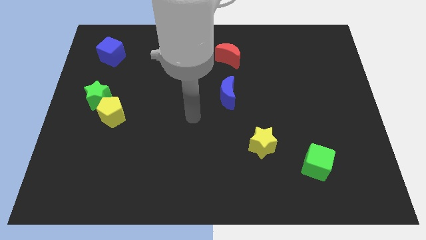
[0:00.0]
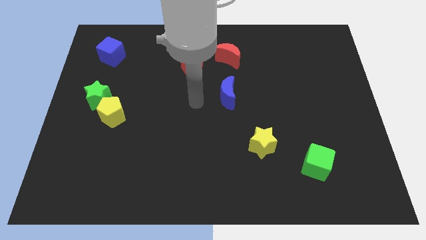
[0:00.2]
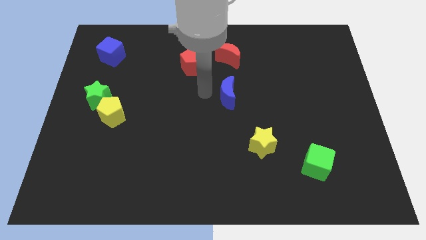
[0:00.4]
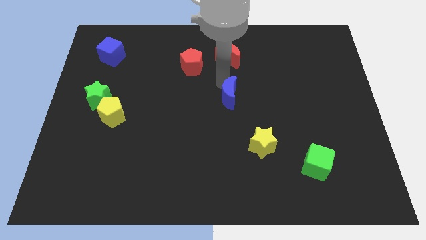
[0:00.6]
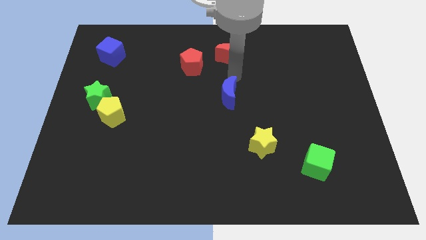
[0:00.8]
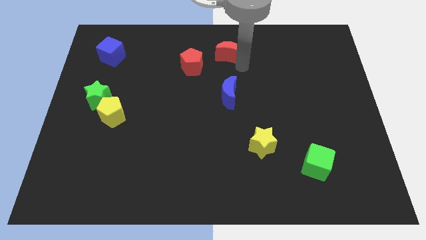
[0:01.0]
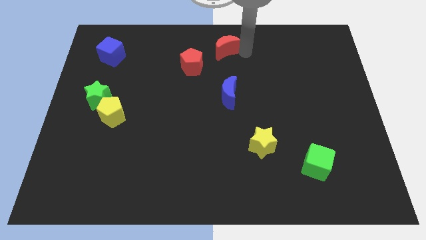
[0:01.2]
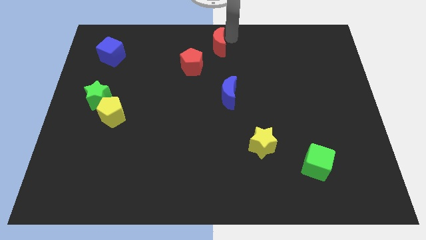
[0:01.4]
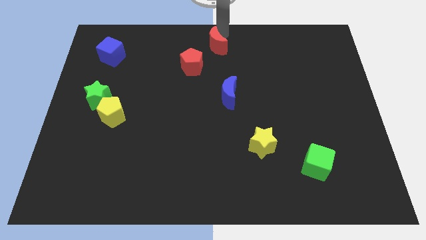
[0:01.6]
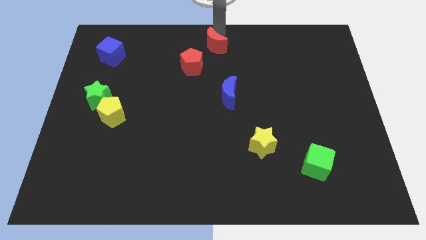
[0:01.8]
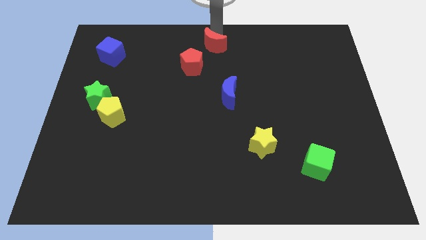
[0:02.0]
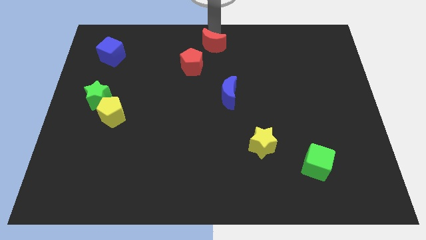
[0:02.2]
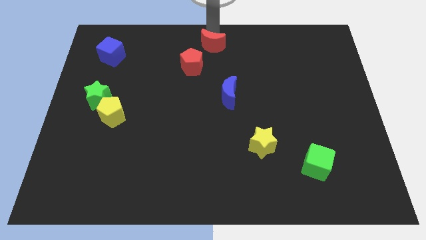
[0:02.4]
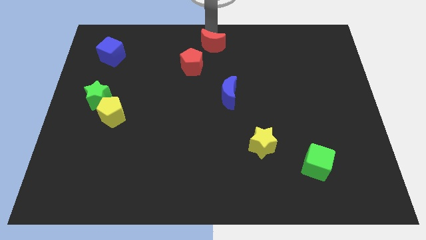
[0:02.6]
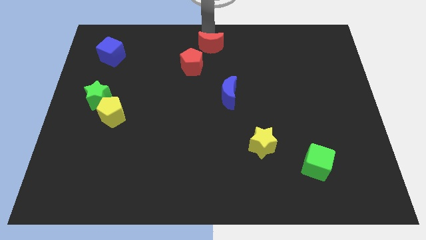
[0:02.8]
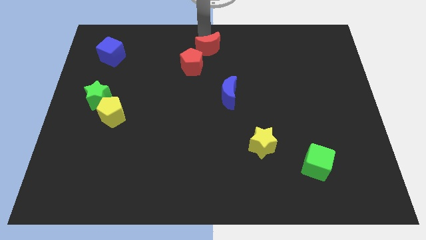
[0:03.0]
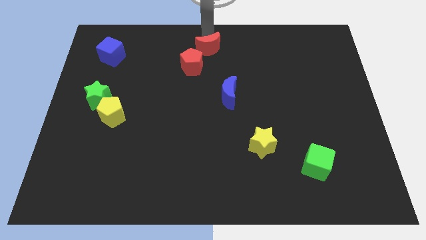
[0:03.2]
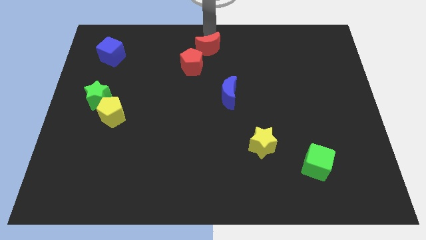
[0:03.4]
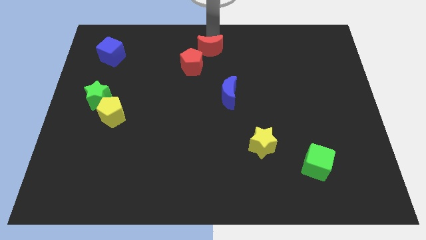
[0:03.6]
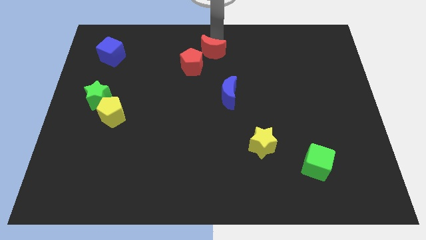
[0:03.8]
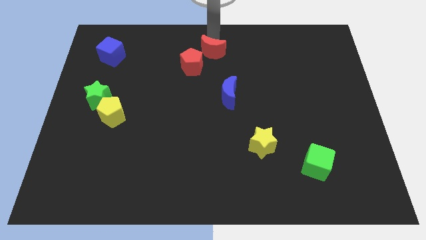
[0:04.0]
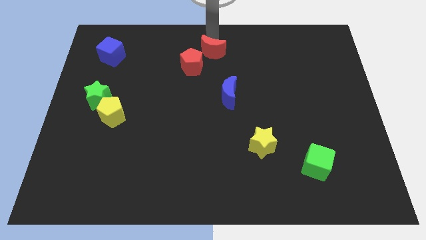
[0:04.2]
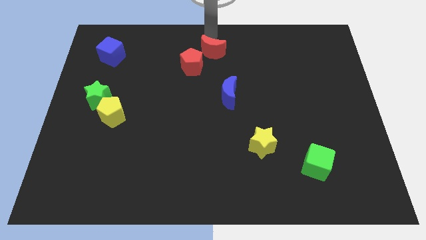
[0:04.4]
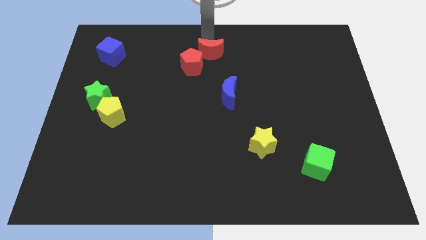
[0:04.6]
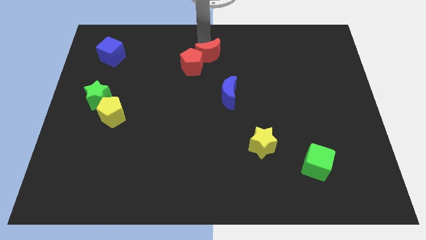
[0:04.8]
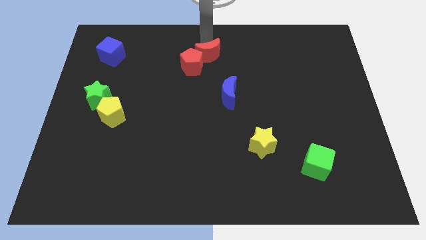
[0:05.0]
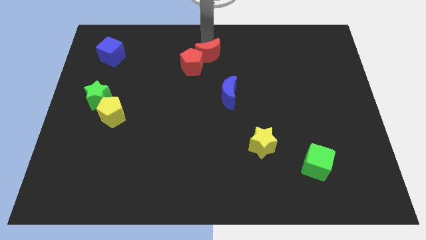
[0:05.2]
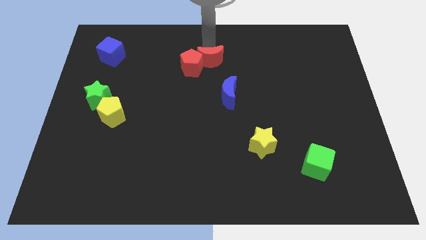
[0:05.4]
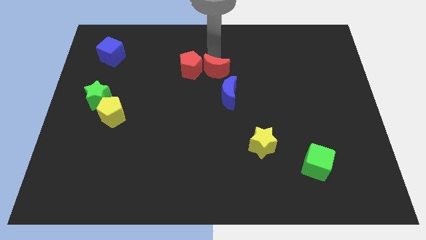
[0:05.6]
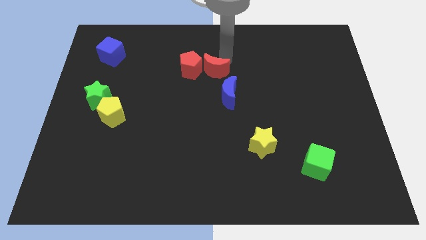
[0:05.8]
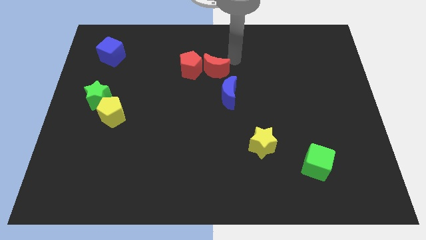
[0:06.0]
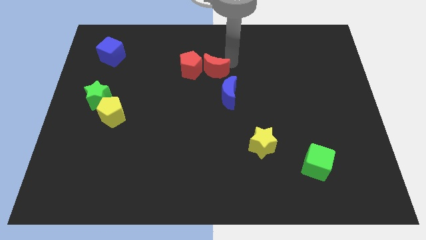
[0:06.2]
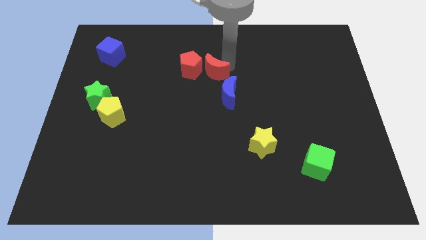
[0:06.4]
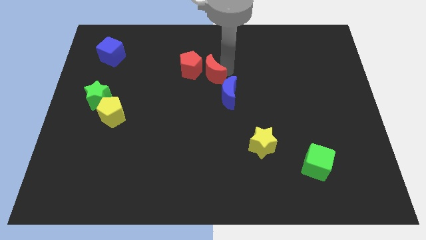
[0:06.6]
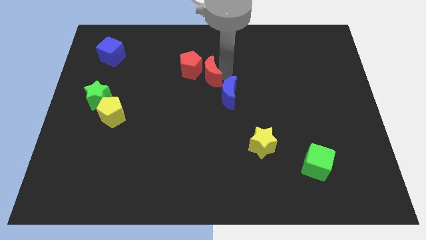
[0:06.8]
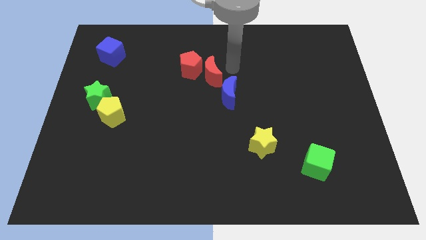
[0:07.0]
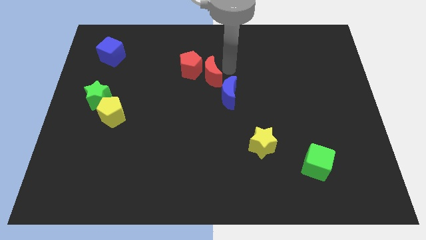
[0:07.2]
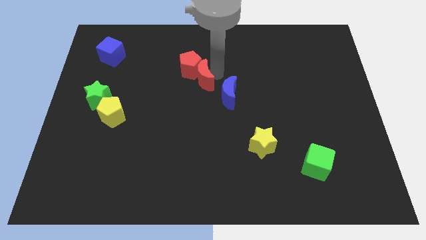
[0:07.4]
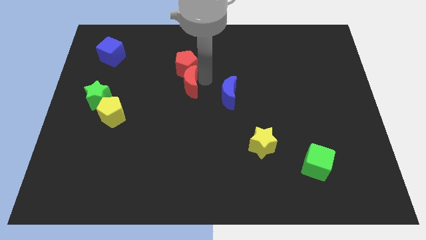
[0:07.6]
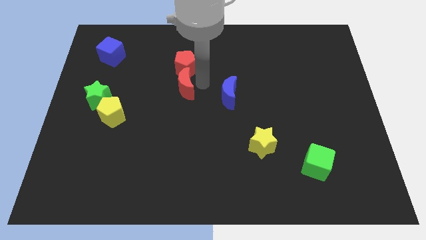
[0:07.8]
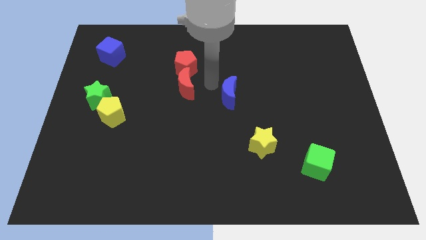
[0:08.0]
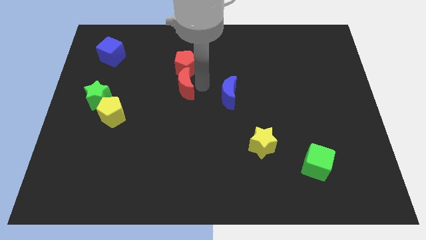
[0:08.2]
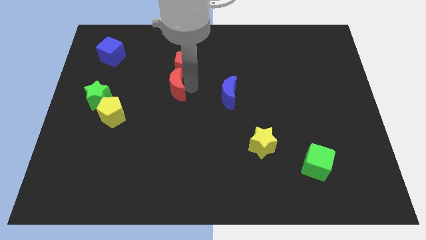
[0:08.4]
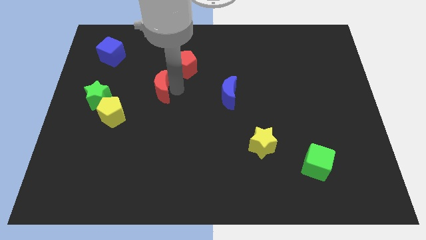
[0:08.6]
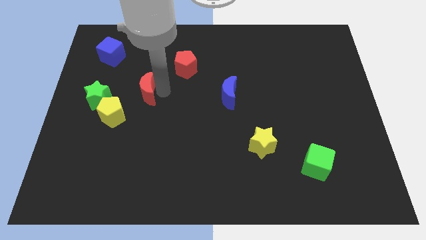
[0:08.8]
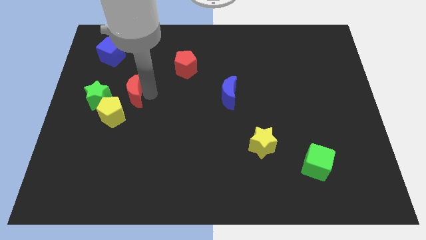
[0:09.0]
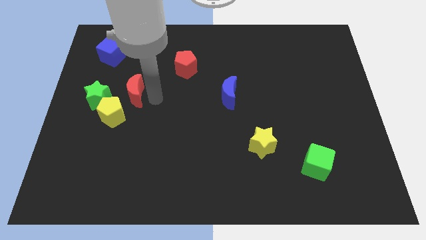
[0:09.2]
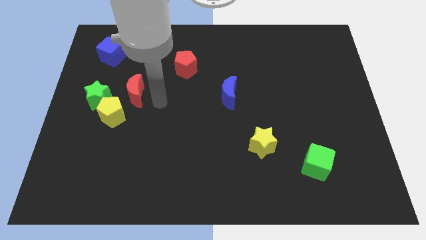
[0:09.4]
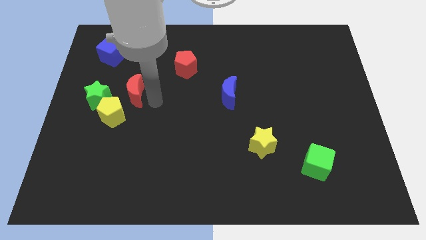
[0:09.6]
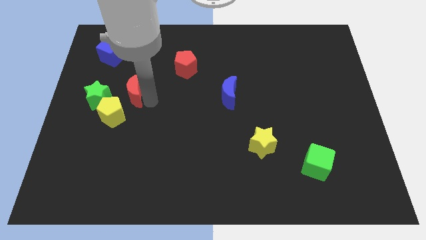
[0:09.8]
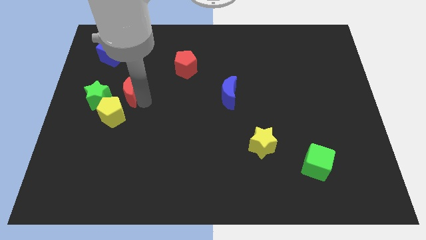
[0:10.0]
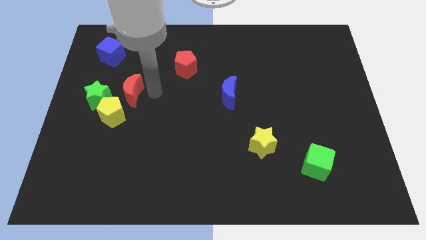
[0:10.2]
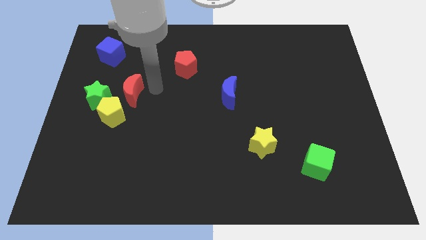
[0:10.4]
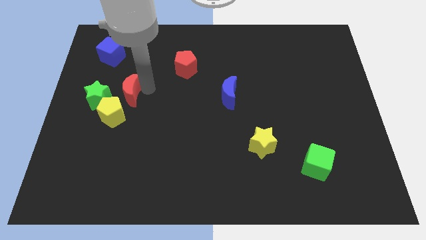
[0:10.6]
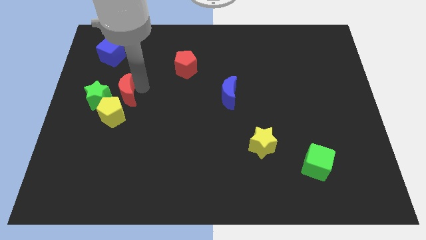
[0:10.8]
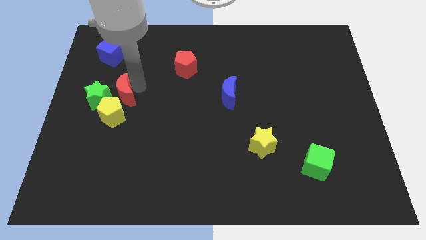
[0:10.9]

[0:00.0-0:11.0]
put the red moon close to the green star

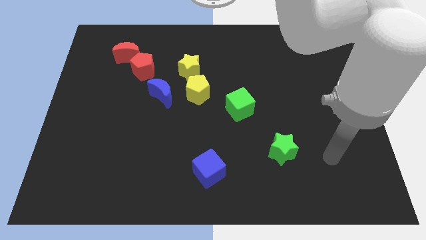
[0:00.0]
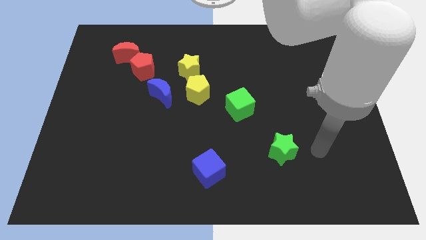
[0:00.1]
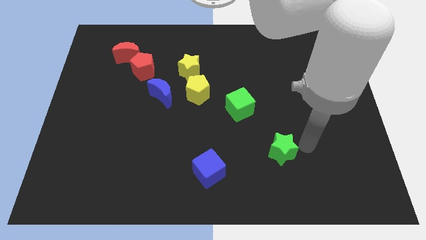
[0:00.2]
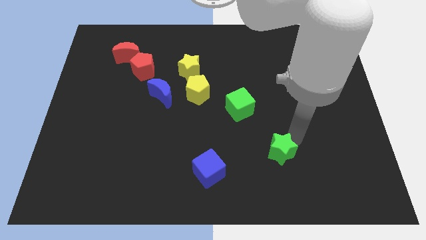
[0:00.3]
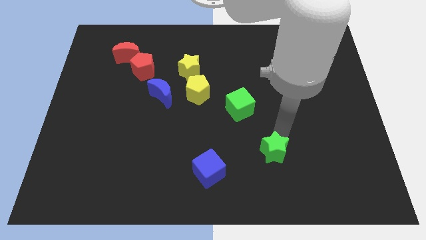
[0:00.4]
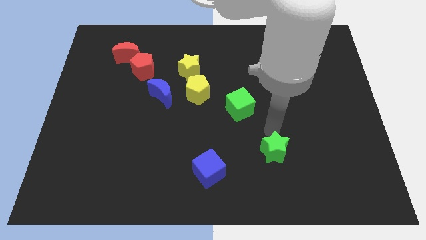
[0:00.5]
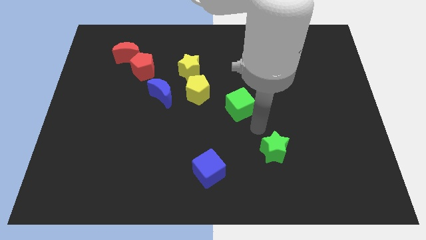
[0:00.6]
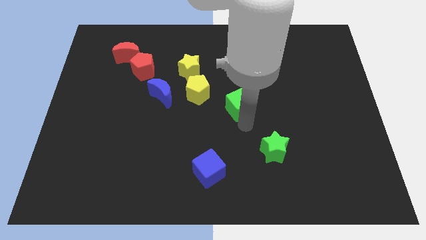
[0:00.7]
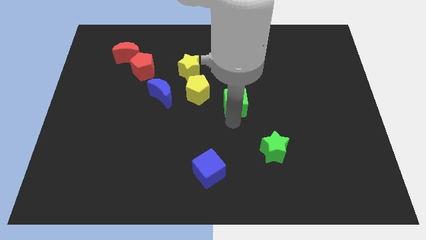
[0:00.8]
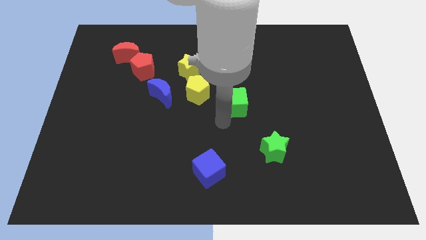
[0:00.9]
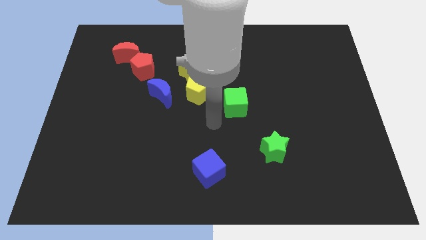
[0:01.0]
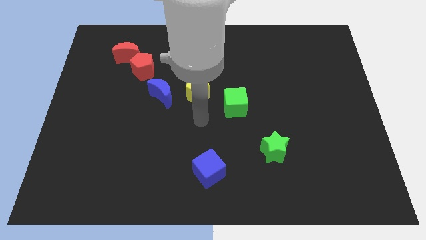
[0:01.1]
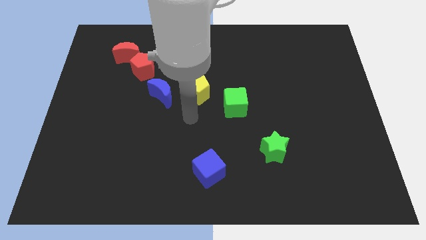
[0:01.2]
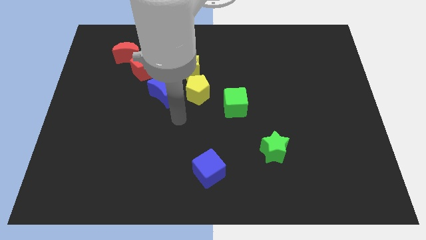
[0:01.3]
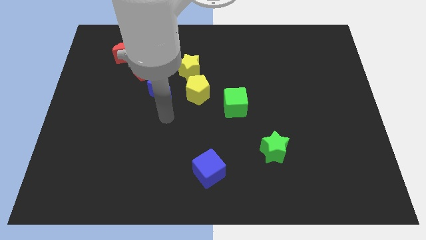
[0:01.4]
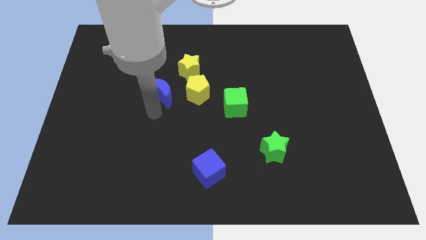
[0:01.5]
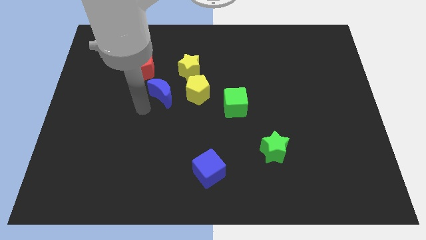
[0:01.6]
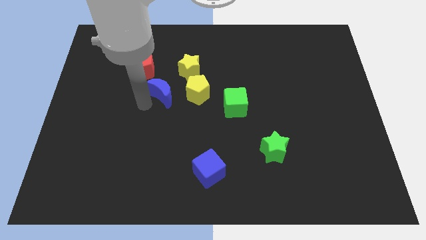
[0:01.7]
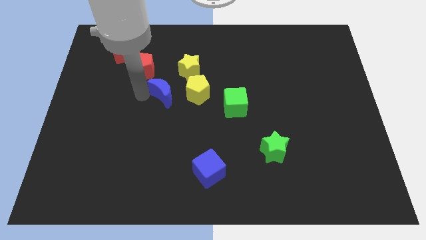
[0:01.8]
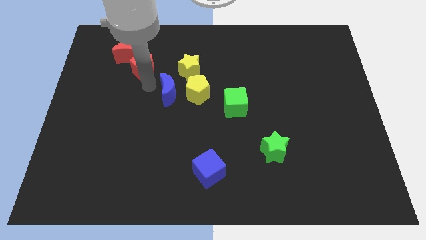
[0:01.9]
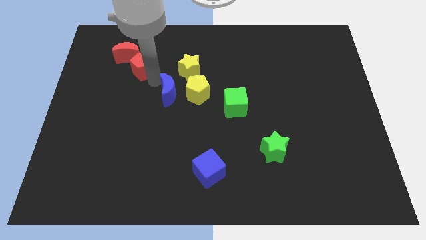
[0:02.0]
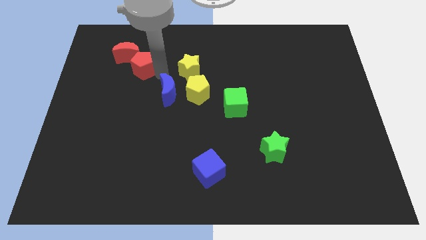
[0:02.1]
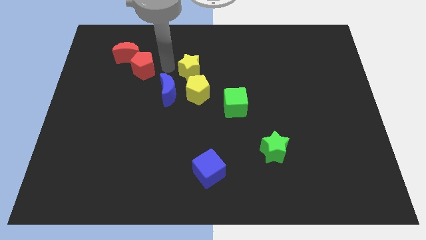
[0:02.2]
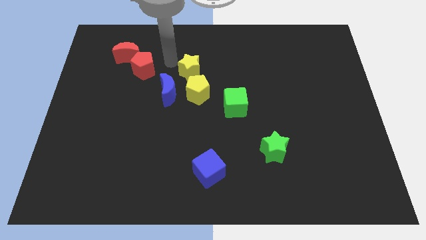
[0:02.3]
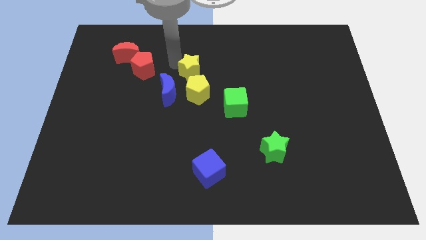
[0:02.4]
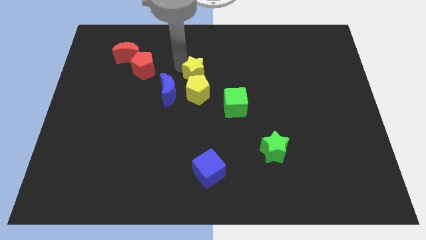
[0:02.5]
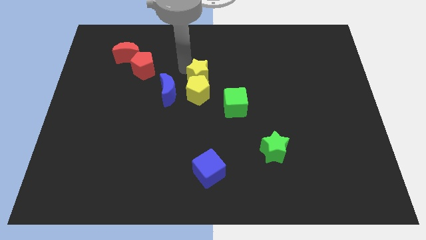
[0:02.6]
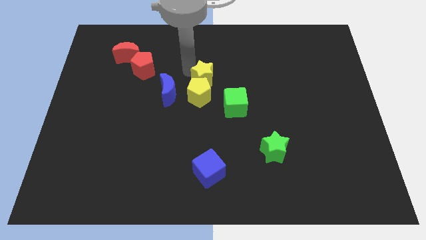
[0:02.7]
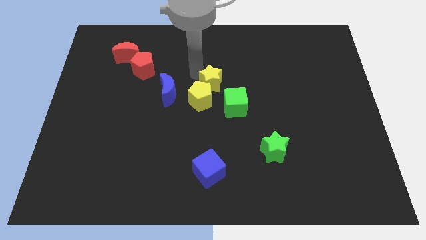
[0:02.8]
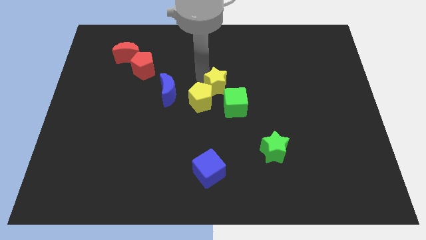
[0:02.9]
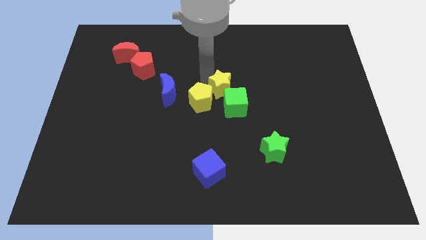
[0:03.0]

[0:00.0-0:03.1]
push the yellow star next to the green cube
